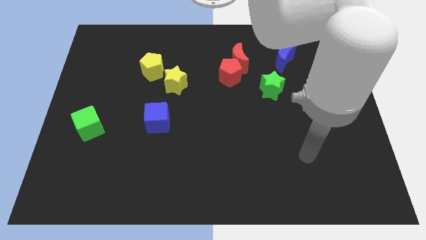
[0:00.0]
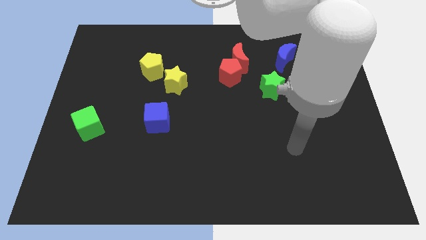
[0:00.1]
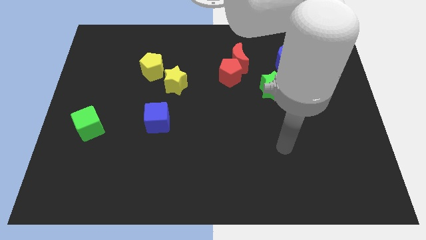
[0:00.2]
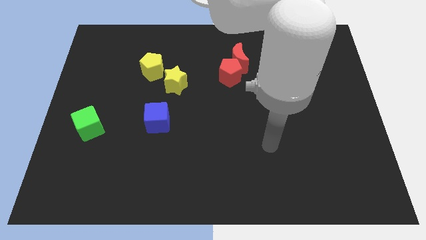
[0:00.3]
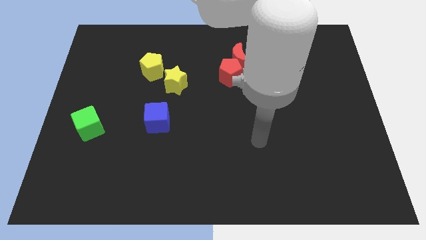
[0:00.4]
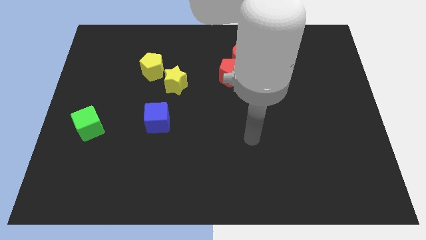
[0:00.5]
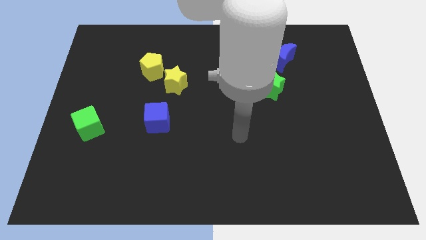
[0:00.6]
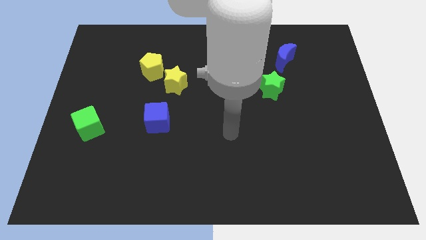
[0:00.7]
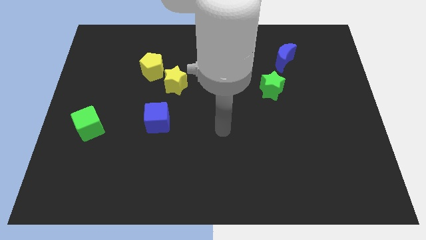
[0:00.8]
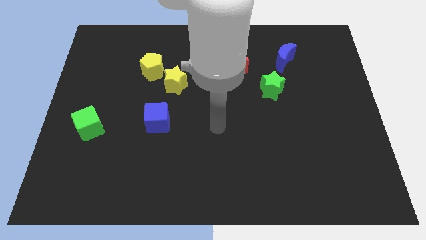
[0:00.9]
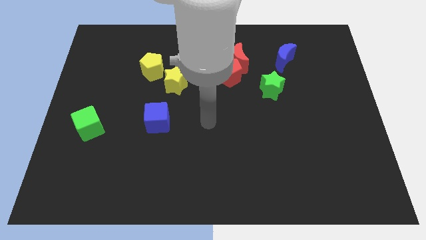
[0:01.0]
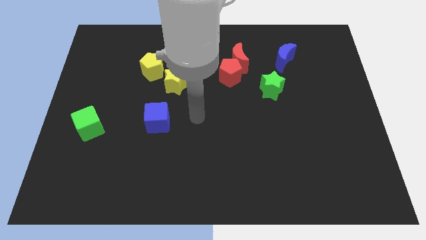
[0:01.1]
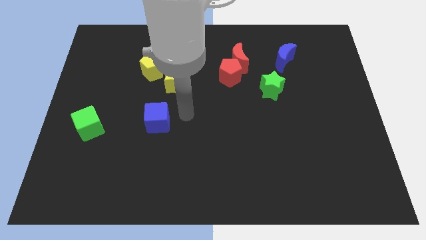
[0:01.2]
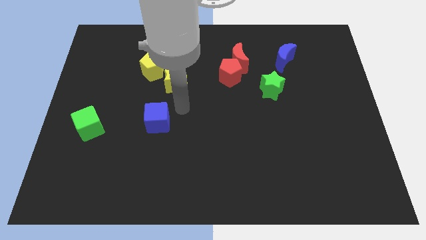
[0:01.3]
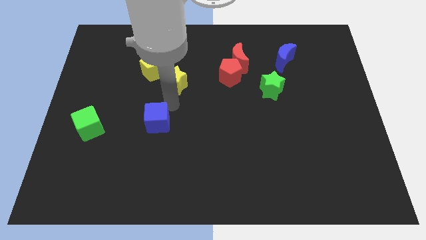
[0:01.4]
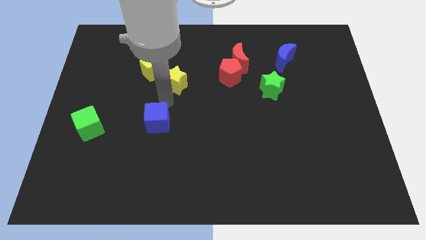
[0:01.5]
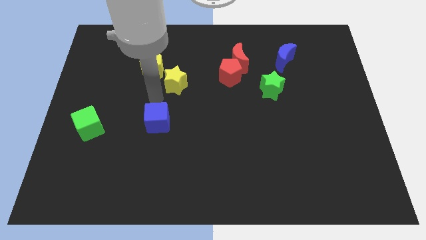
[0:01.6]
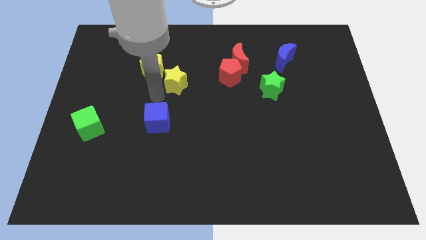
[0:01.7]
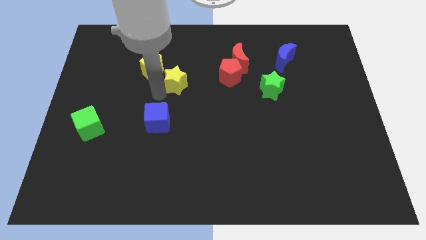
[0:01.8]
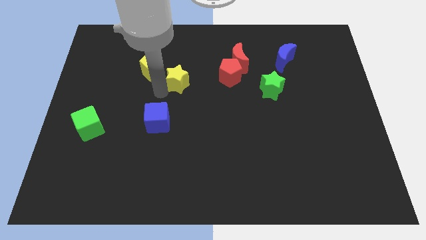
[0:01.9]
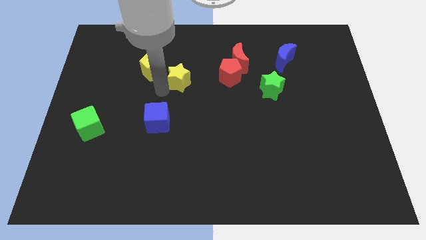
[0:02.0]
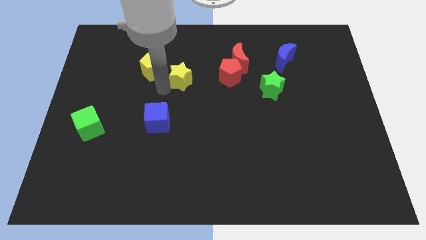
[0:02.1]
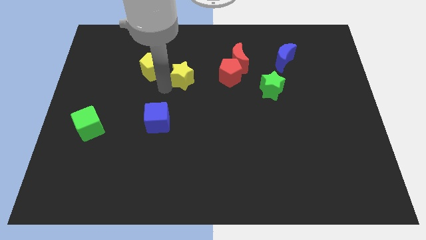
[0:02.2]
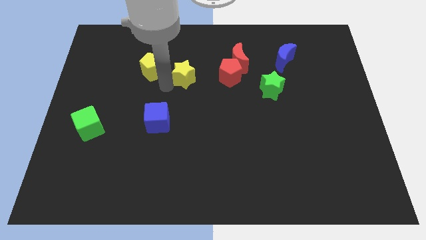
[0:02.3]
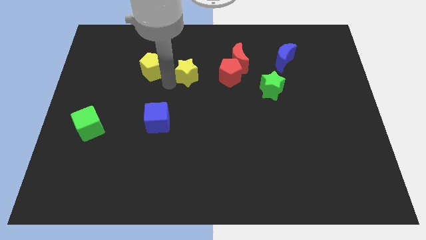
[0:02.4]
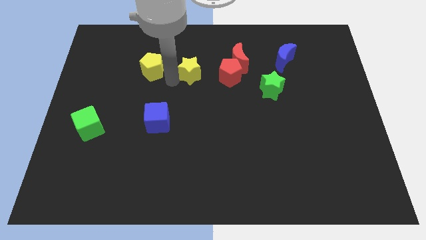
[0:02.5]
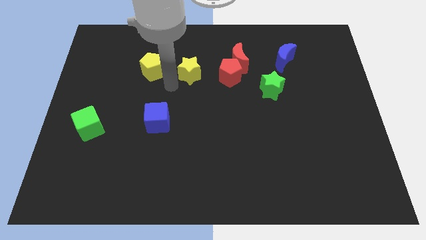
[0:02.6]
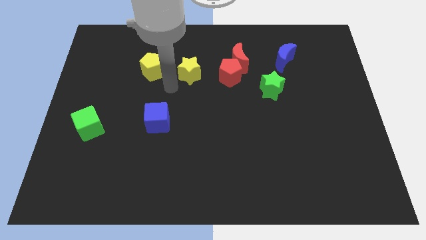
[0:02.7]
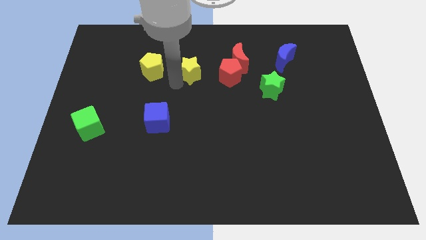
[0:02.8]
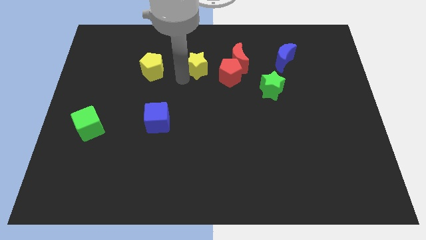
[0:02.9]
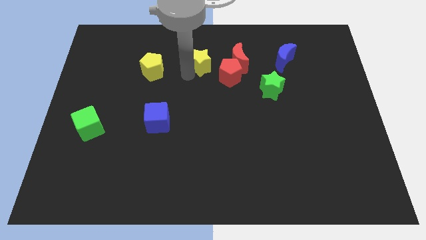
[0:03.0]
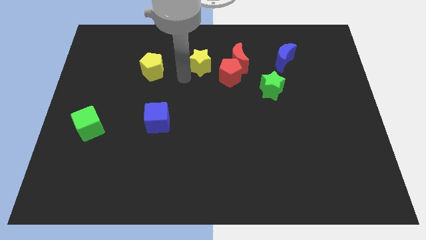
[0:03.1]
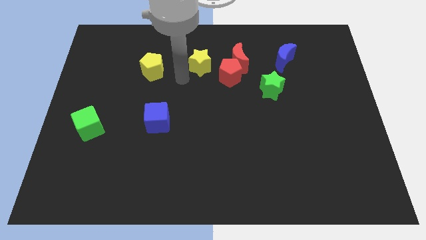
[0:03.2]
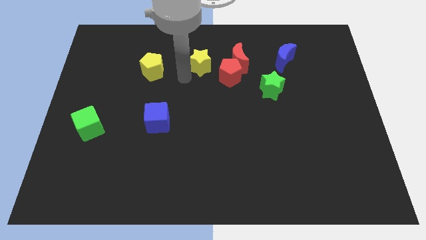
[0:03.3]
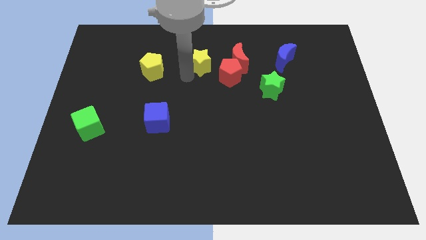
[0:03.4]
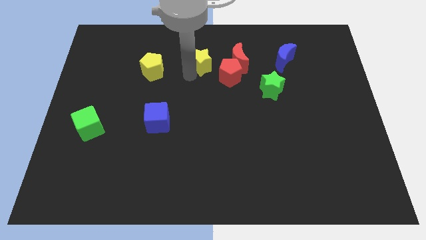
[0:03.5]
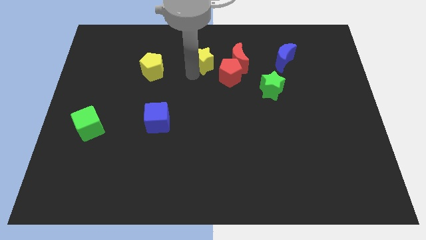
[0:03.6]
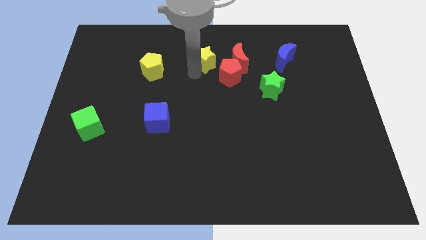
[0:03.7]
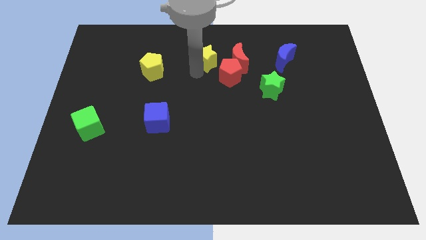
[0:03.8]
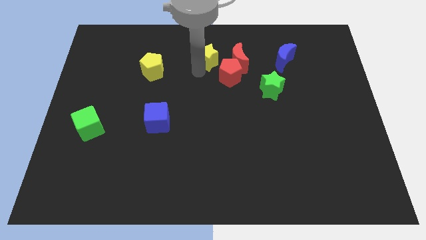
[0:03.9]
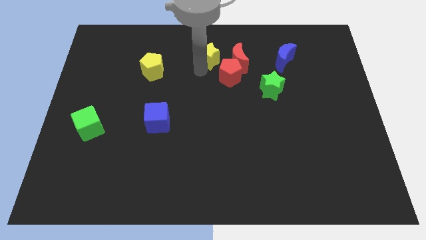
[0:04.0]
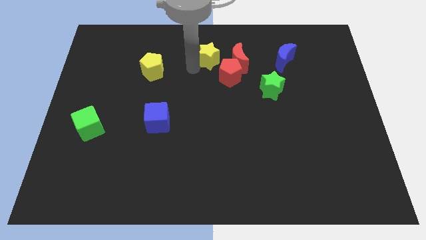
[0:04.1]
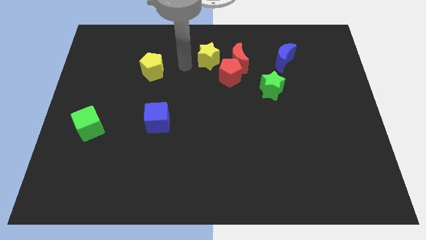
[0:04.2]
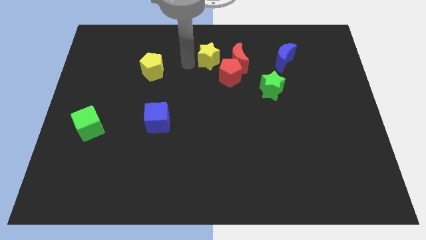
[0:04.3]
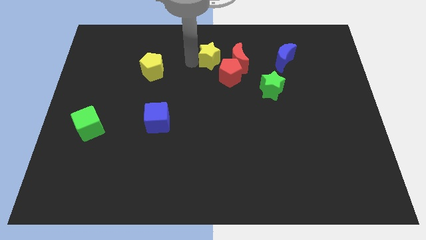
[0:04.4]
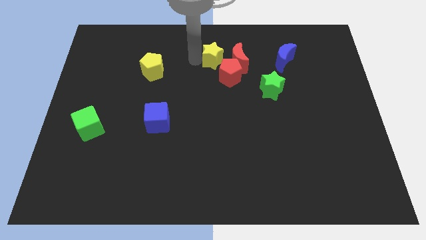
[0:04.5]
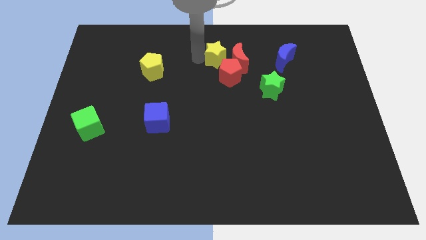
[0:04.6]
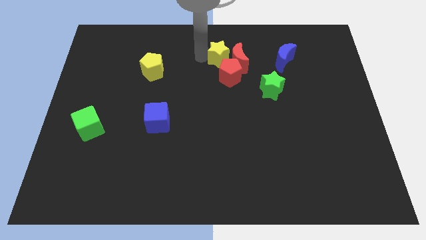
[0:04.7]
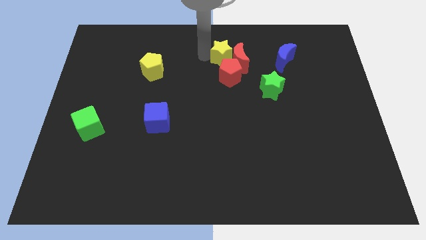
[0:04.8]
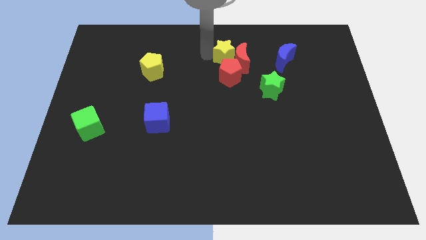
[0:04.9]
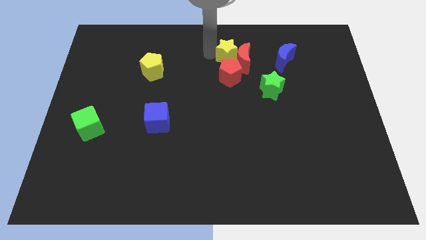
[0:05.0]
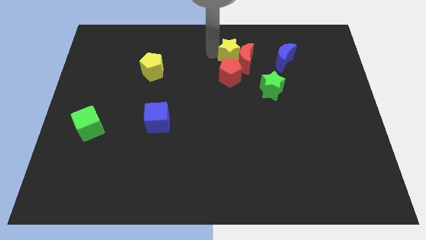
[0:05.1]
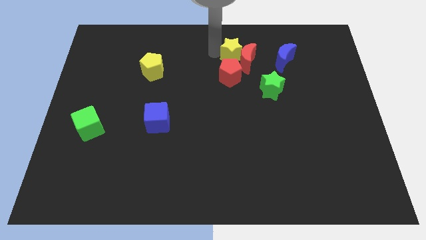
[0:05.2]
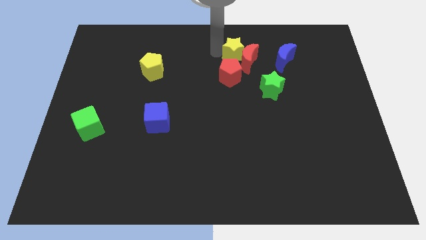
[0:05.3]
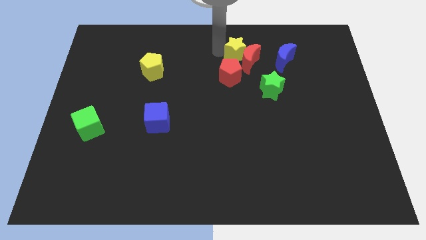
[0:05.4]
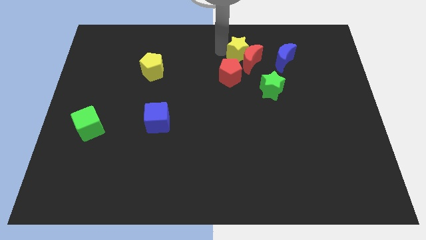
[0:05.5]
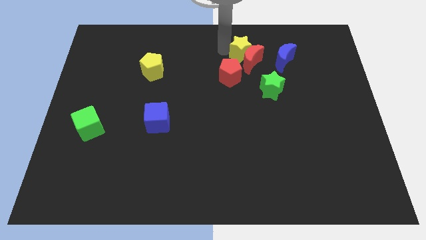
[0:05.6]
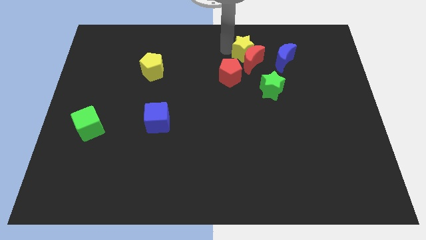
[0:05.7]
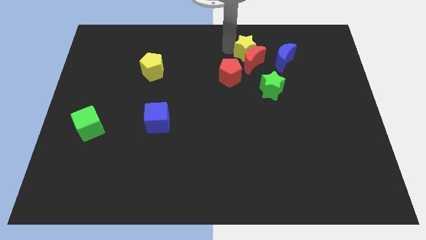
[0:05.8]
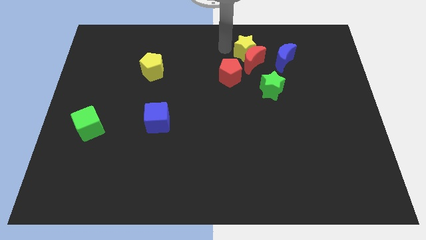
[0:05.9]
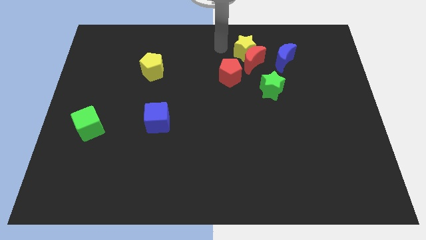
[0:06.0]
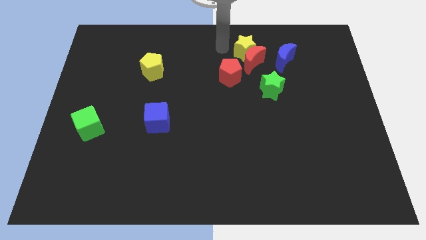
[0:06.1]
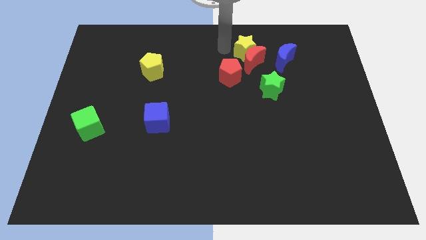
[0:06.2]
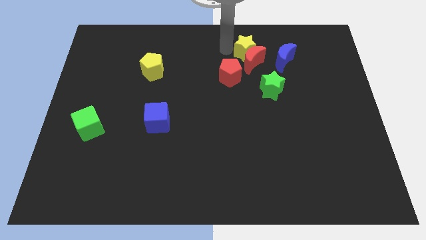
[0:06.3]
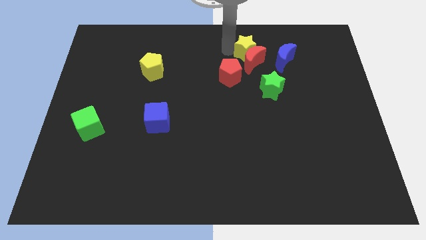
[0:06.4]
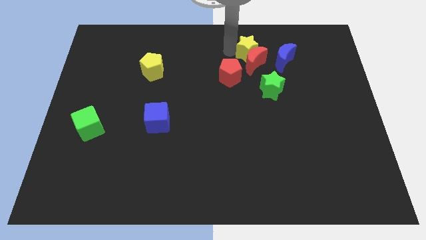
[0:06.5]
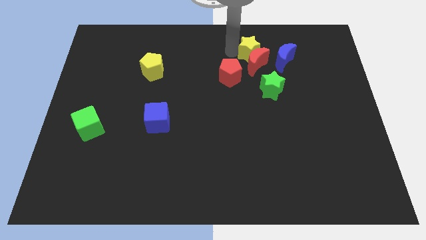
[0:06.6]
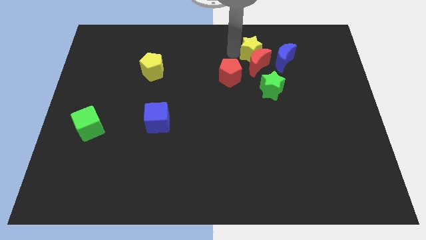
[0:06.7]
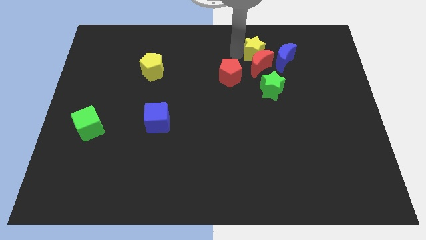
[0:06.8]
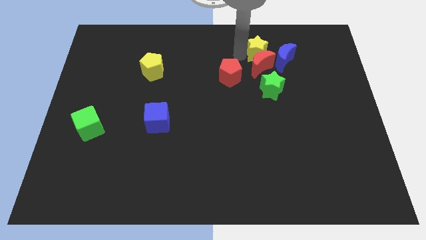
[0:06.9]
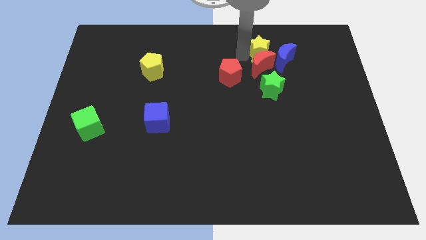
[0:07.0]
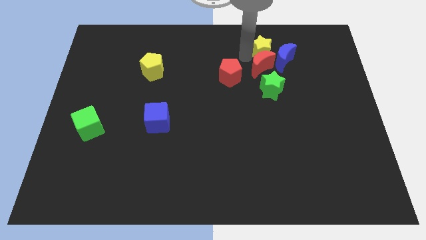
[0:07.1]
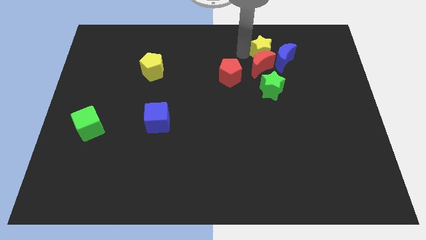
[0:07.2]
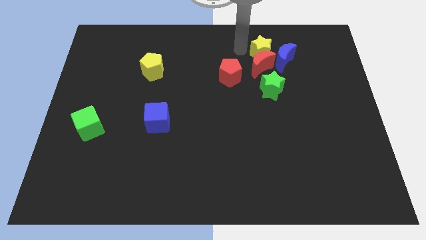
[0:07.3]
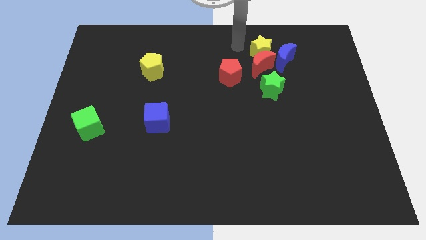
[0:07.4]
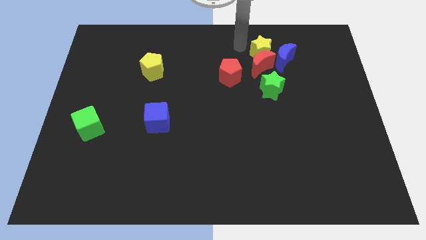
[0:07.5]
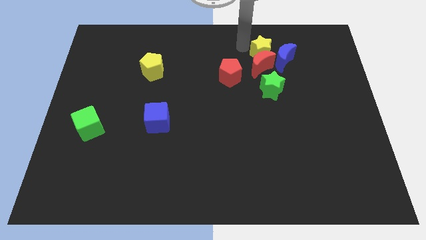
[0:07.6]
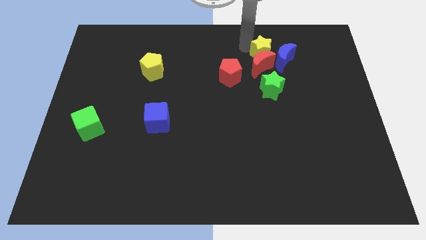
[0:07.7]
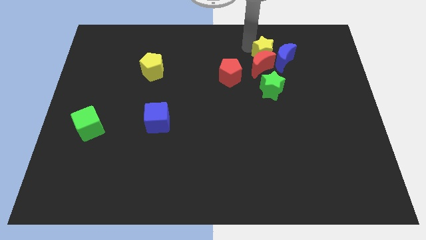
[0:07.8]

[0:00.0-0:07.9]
move the yellow star towards the blue moon
